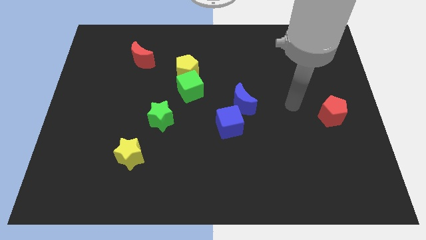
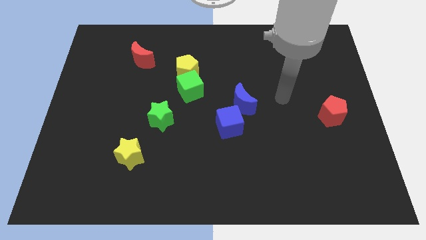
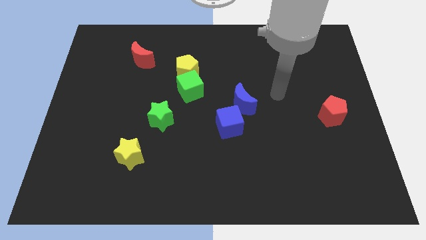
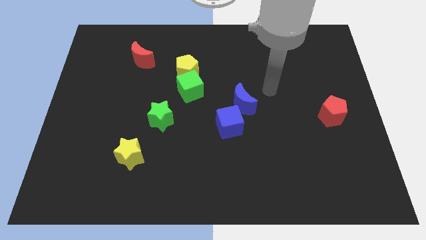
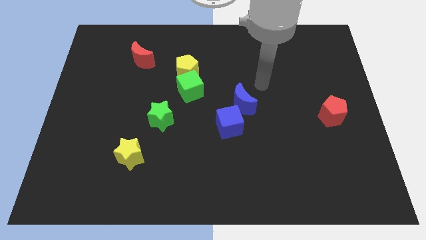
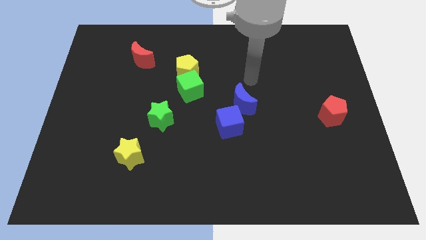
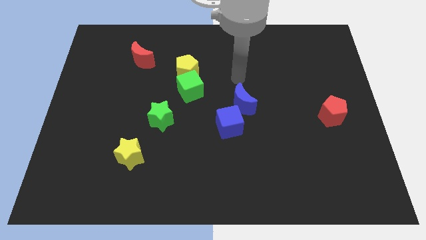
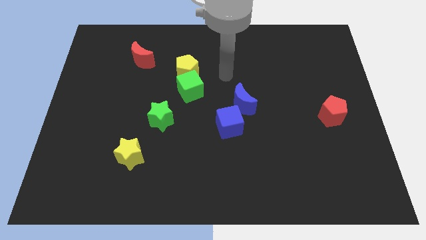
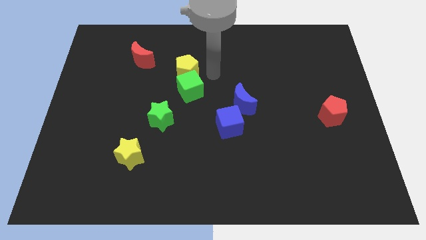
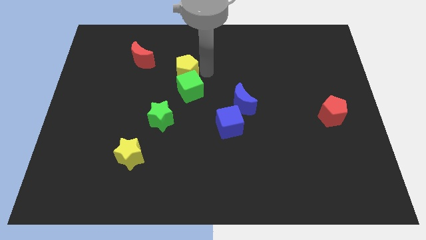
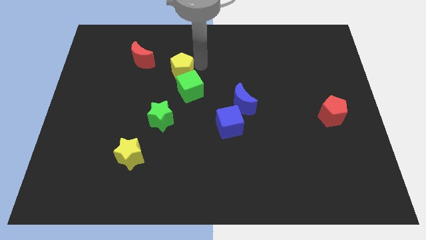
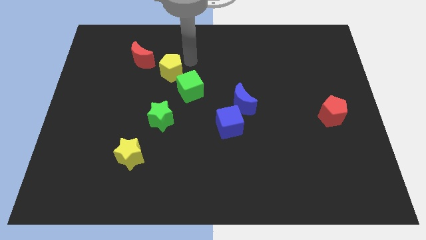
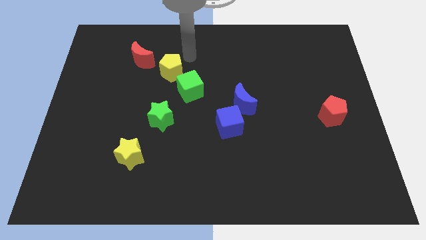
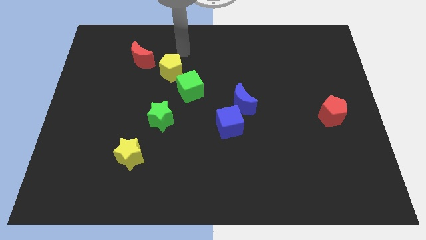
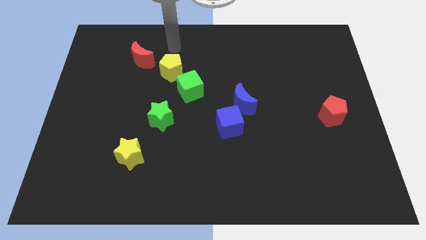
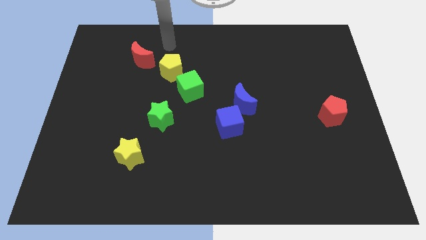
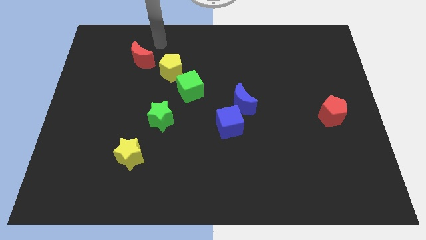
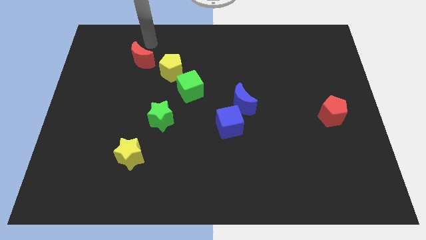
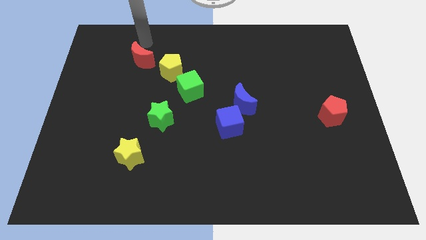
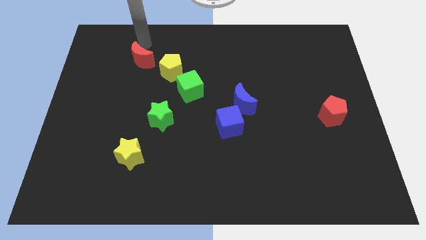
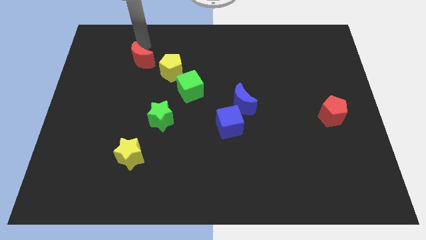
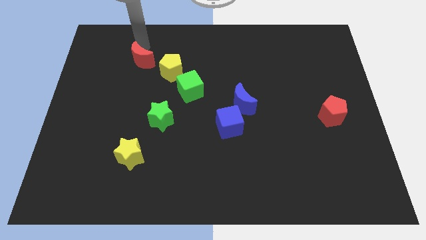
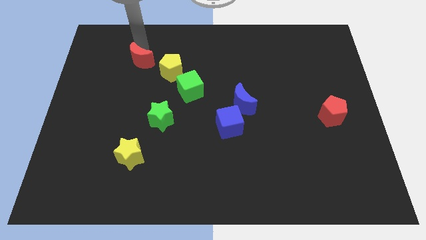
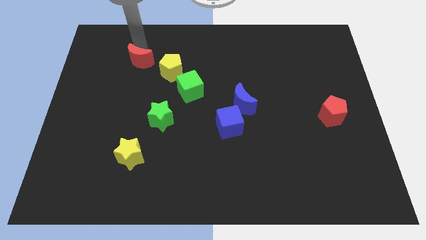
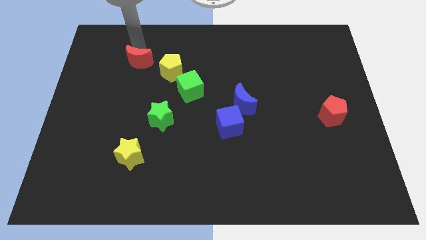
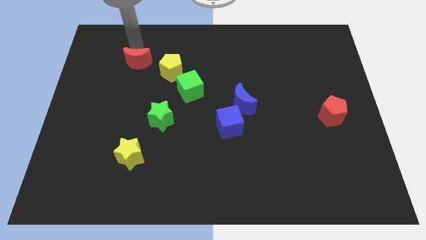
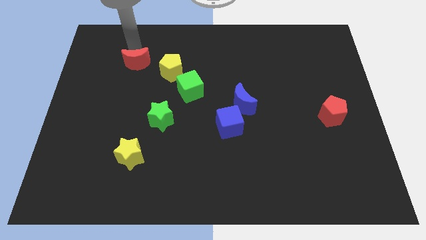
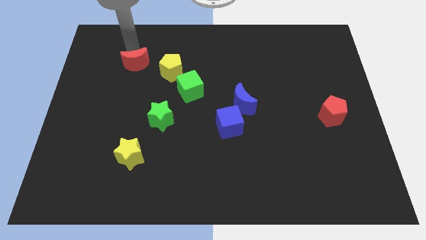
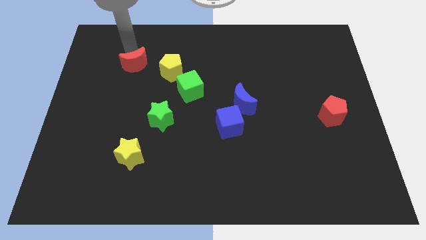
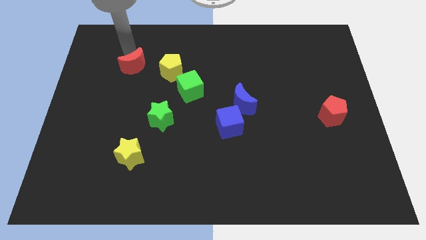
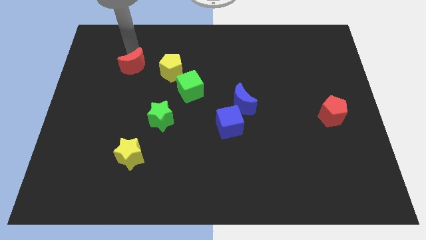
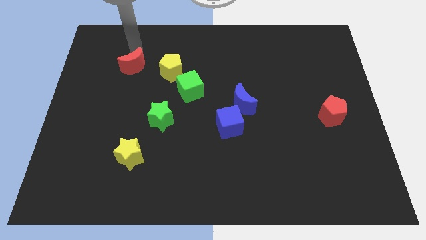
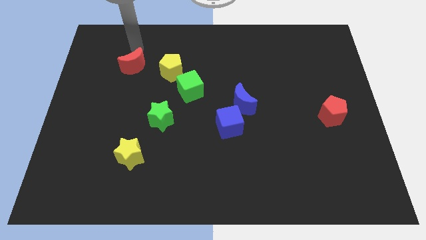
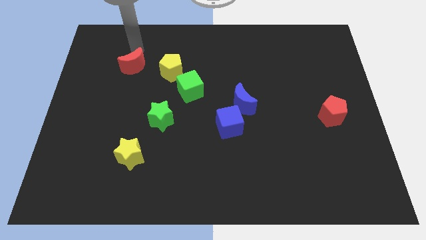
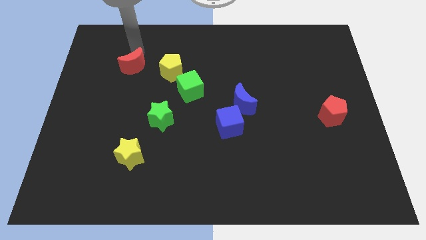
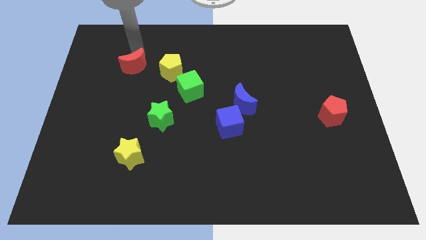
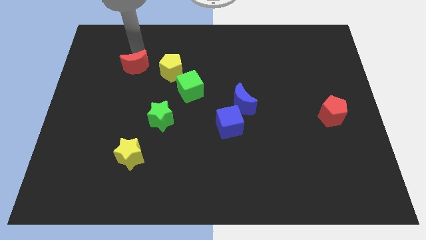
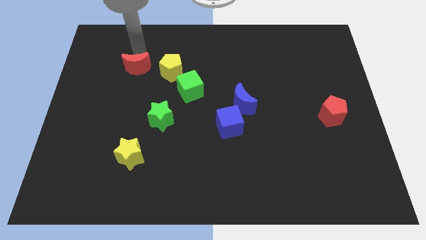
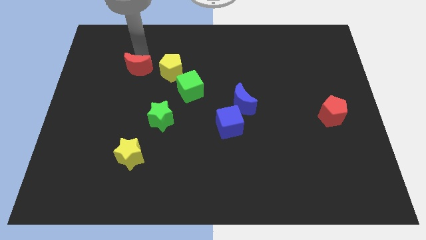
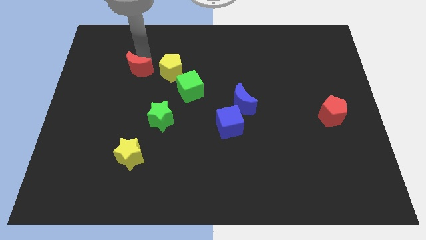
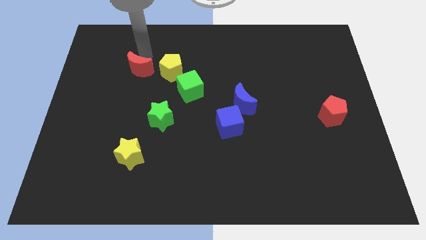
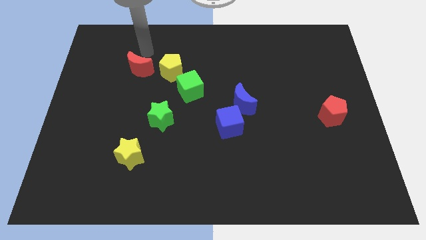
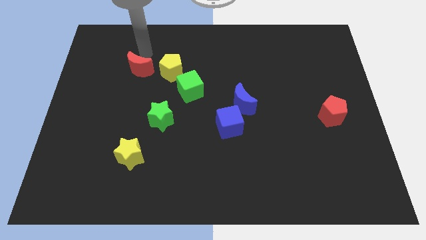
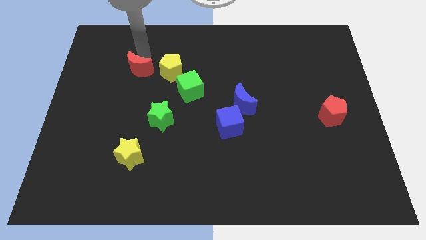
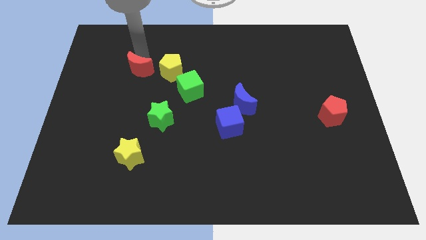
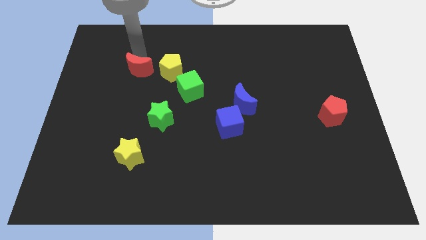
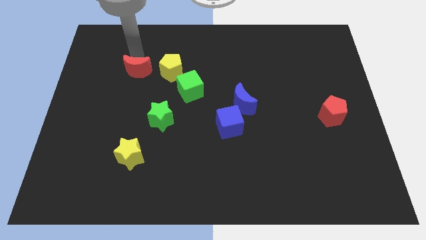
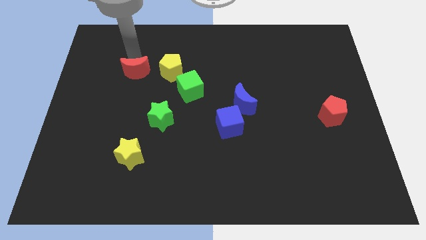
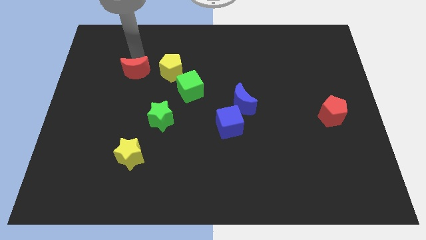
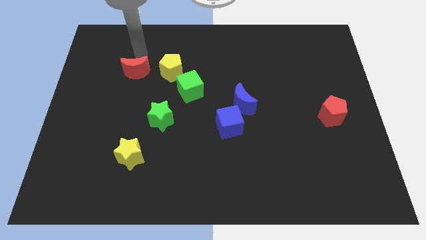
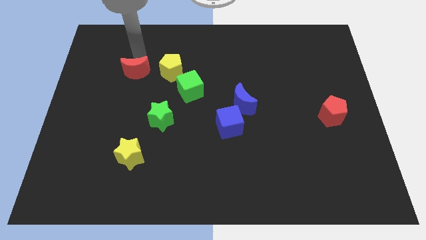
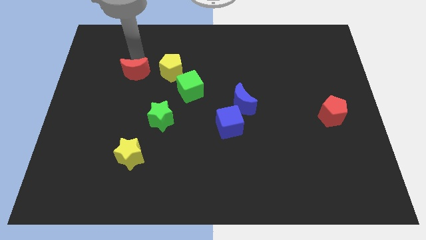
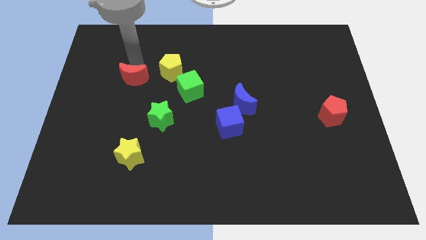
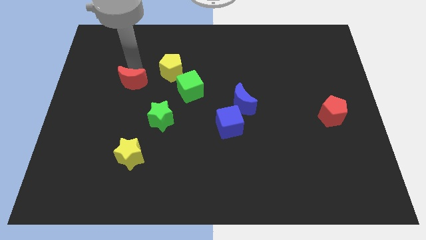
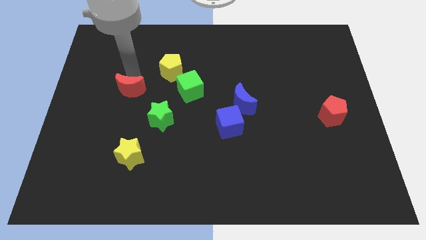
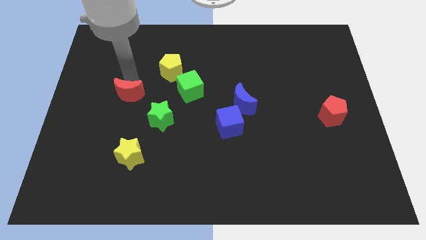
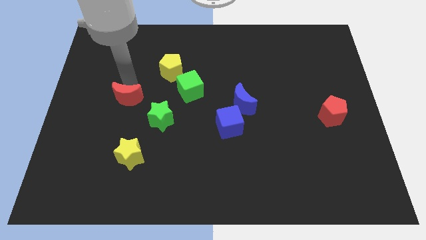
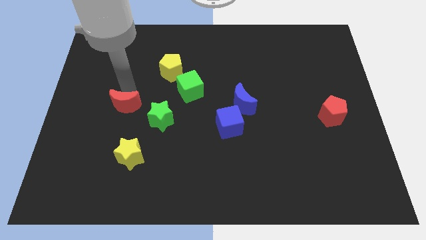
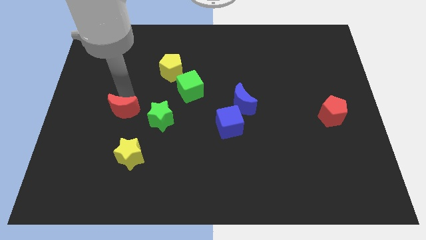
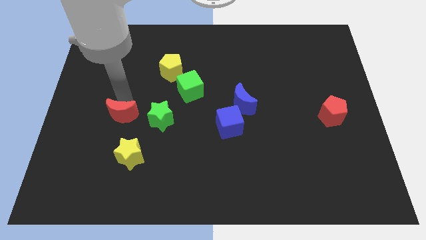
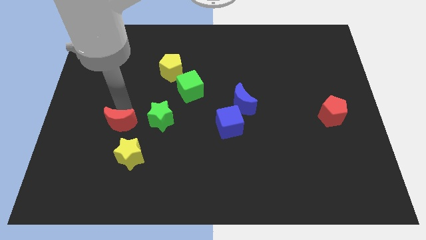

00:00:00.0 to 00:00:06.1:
move the red moon downwards

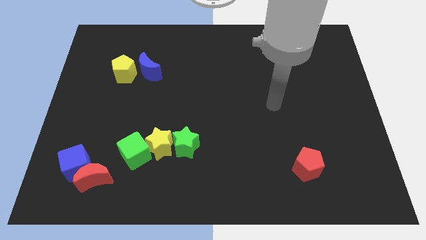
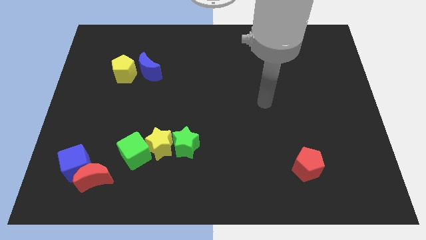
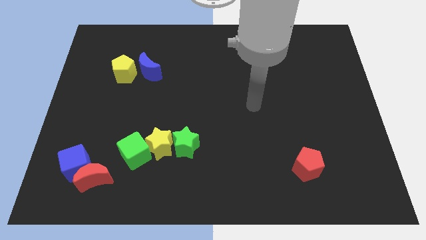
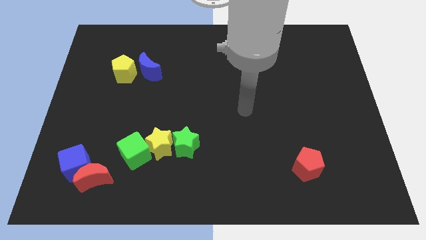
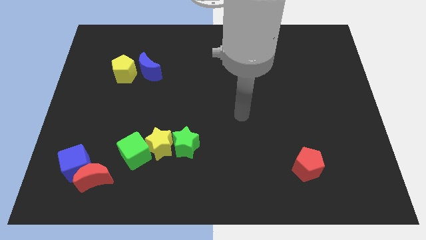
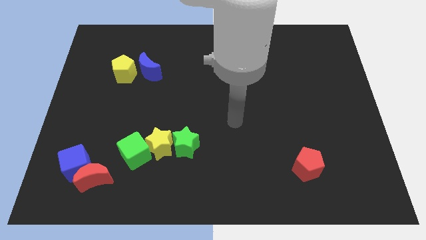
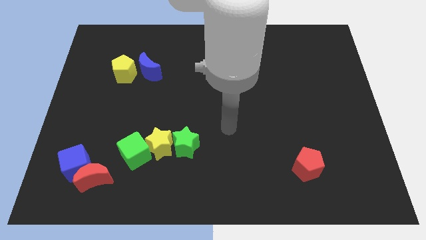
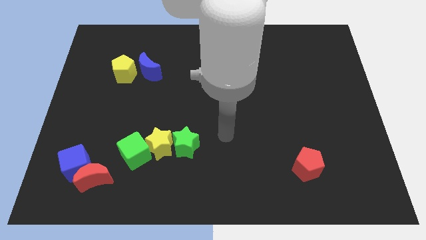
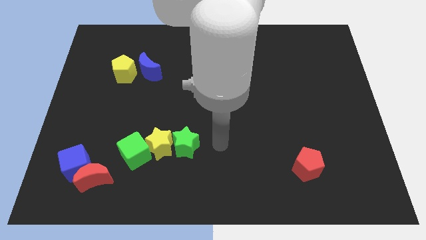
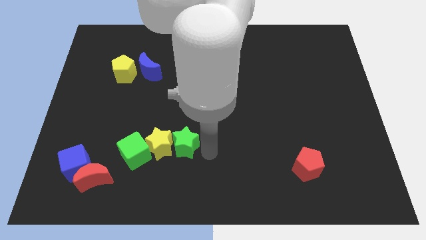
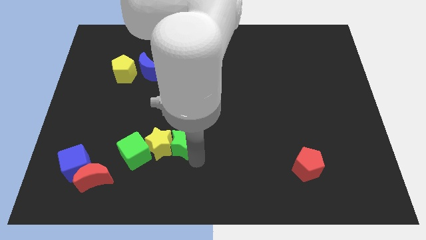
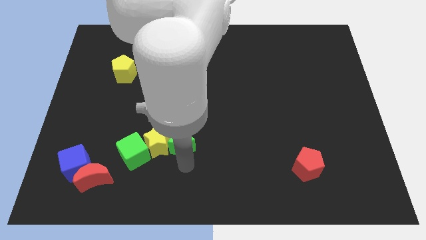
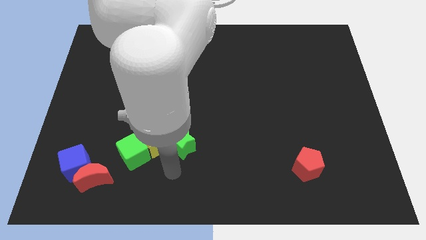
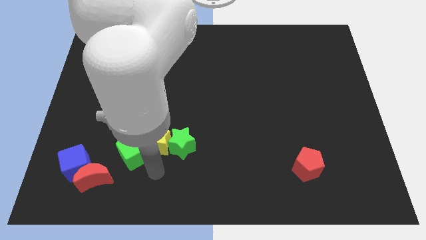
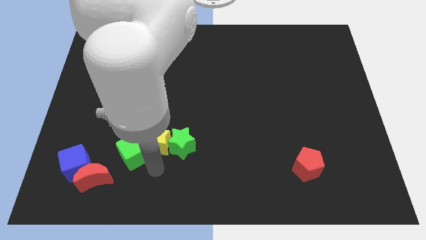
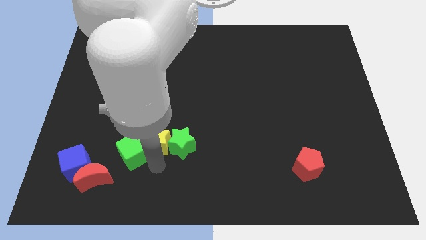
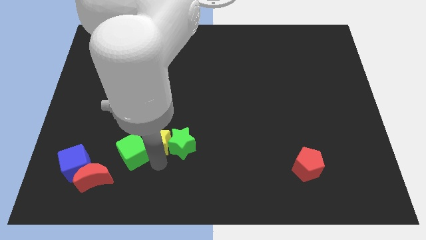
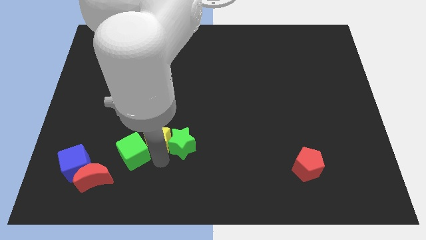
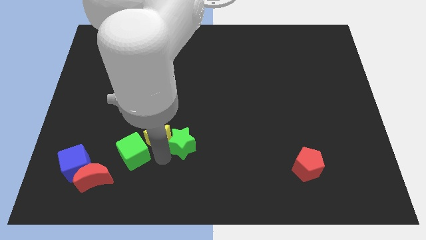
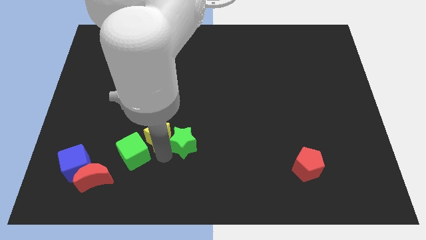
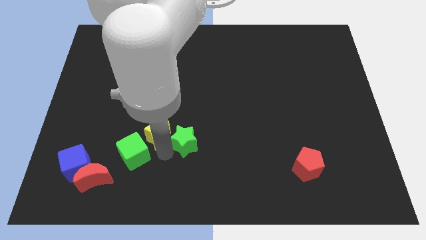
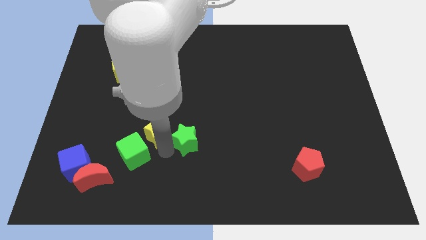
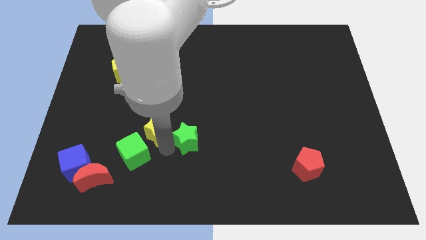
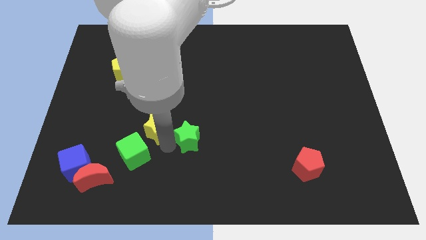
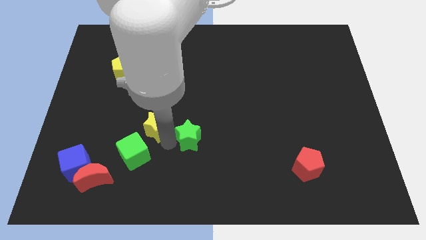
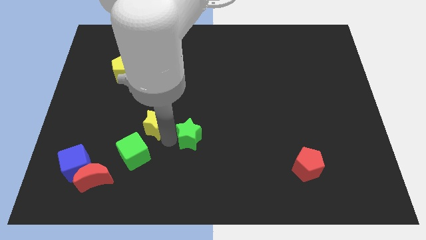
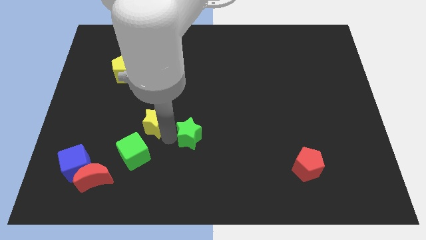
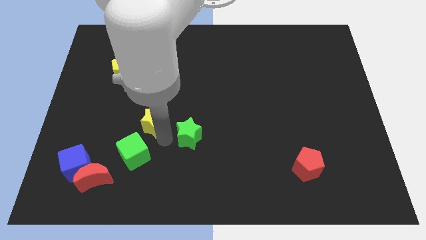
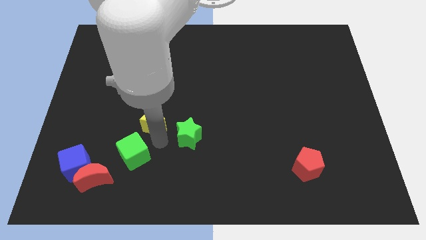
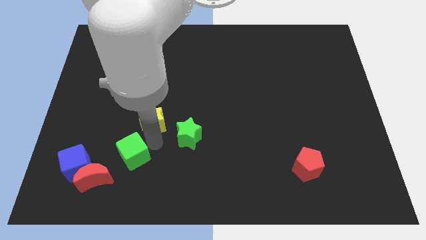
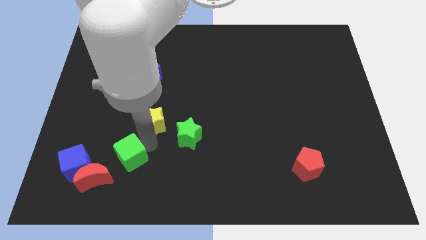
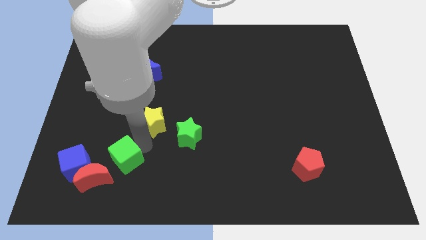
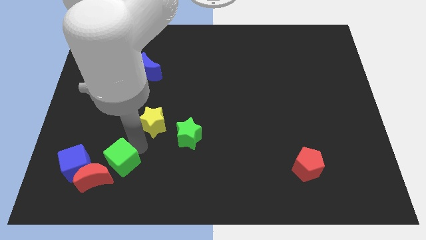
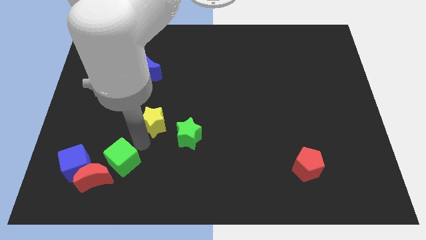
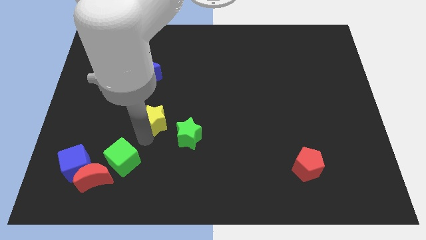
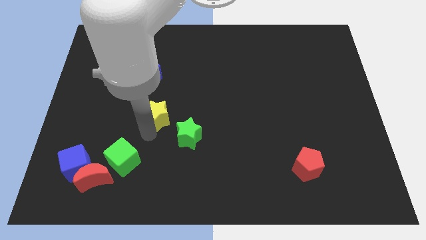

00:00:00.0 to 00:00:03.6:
move the yellow star a little bit upwards
